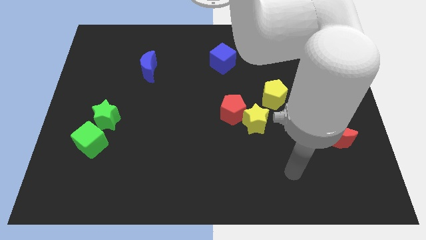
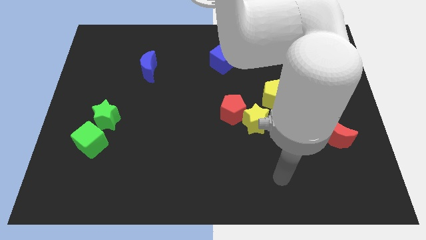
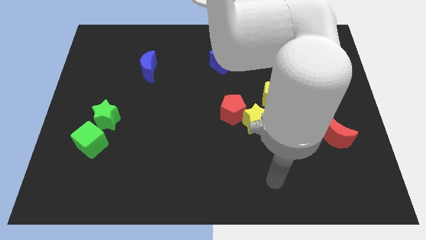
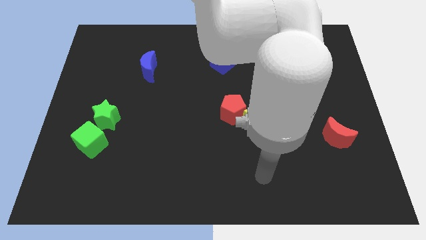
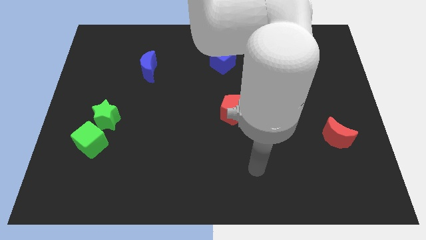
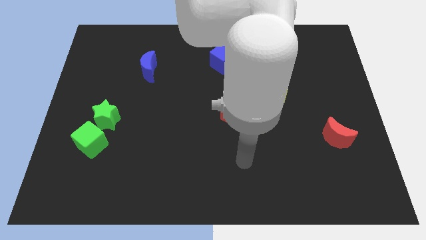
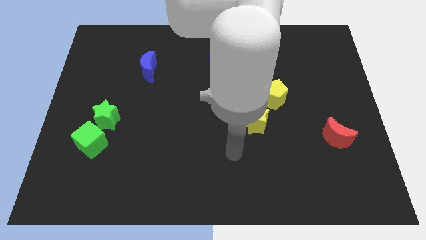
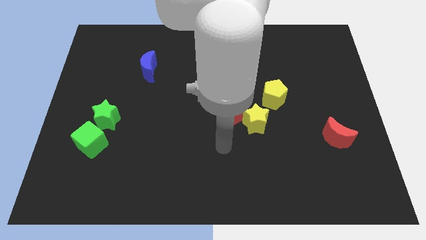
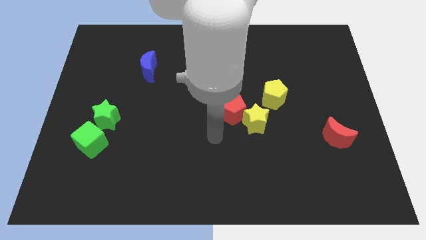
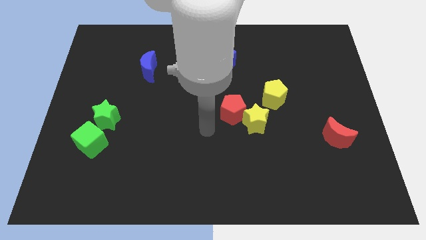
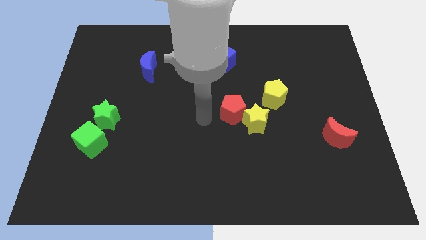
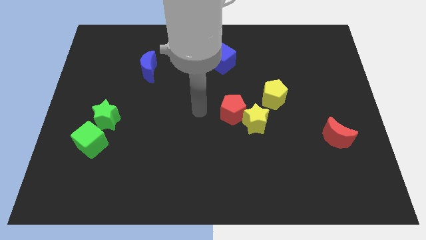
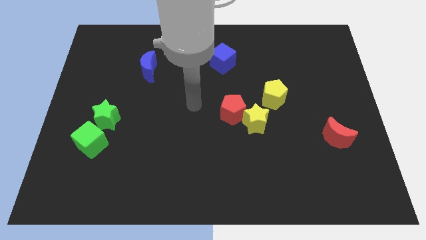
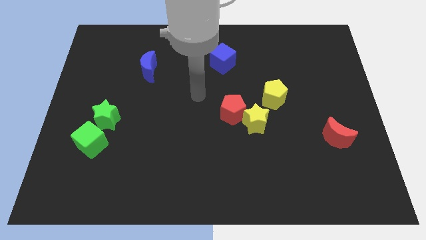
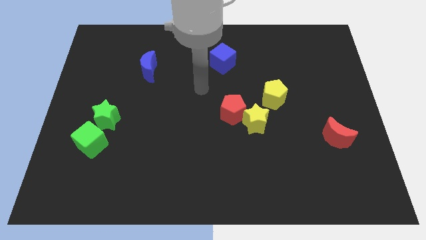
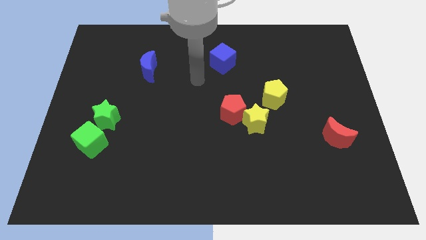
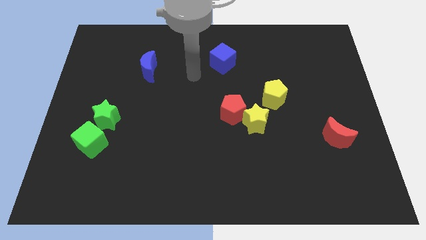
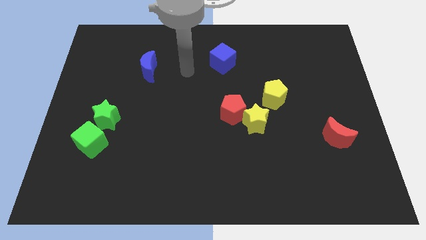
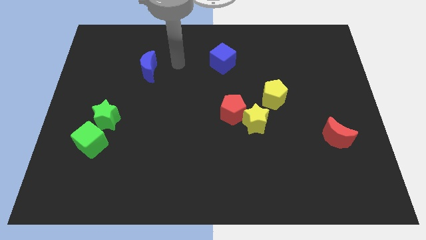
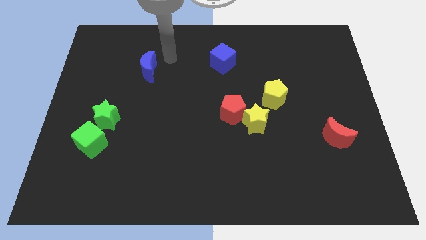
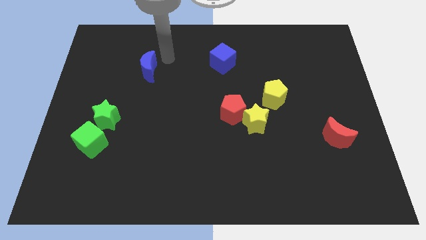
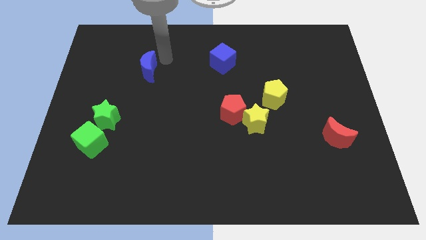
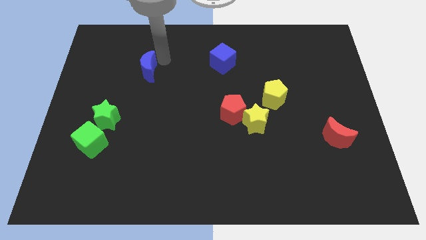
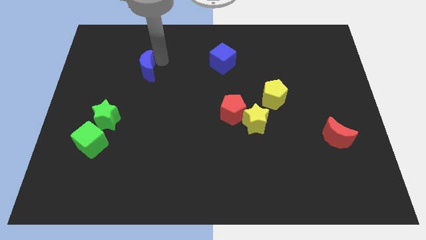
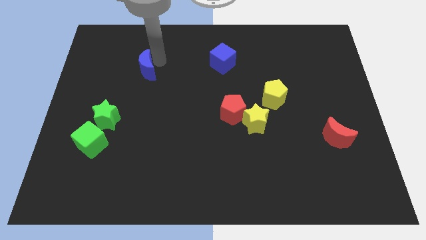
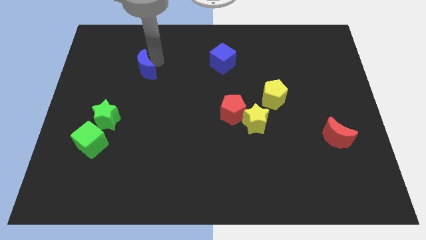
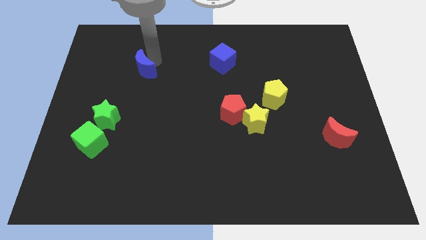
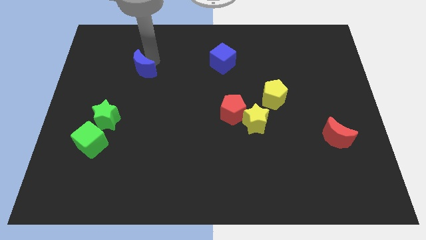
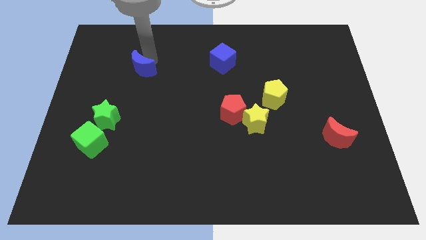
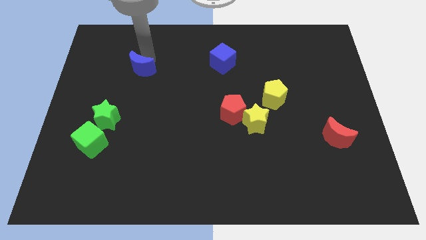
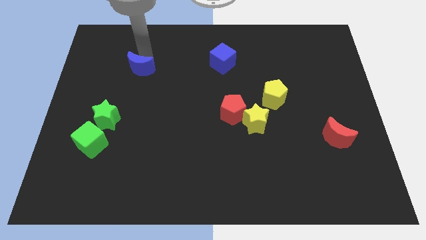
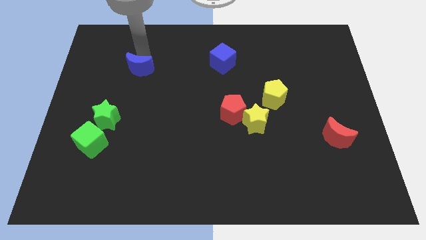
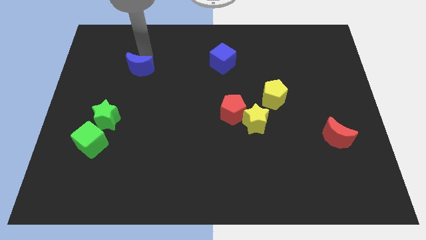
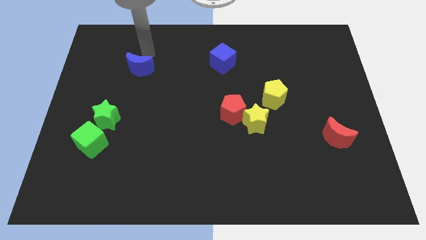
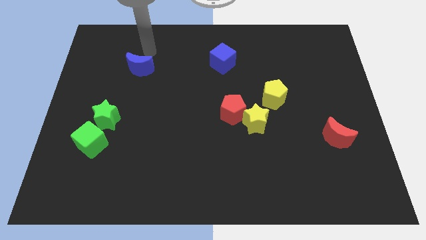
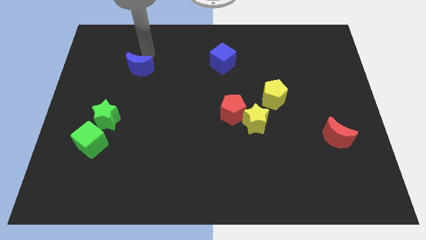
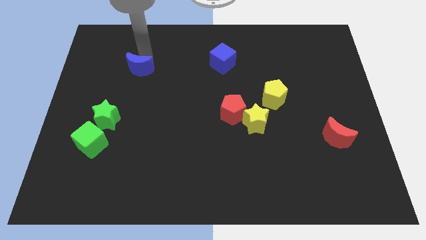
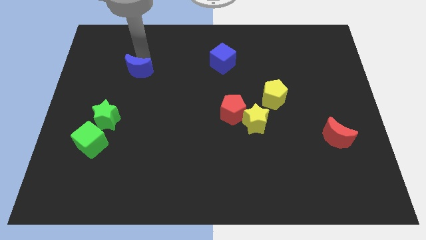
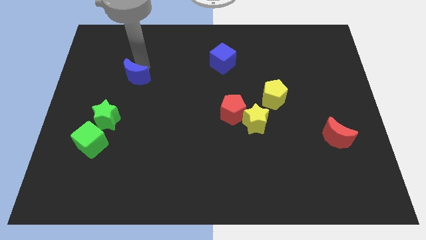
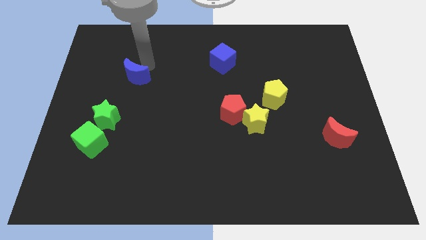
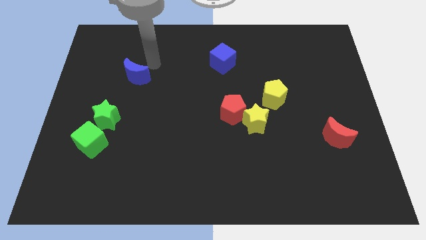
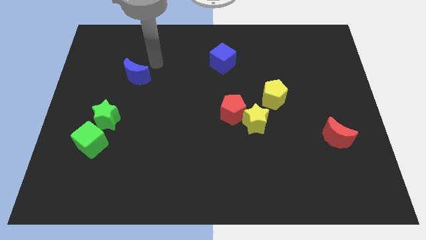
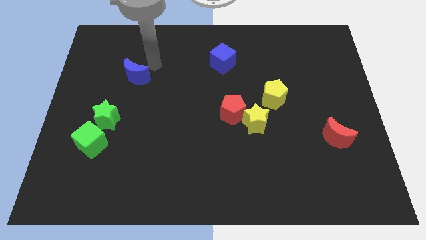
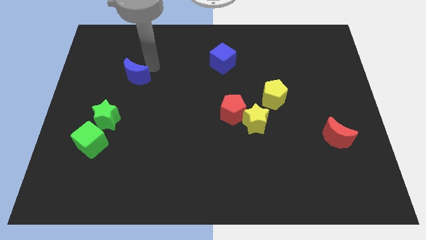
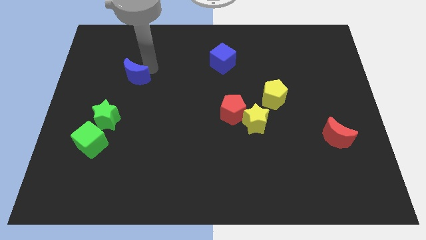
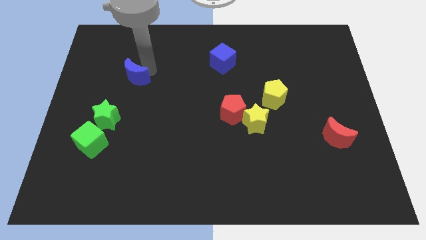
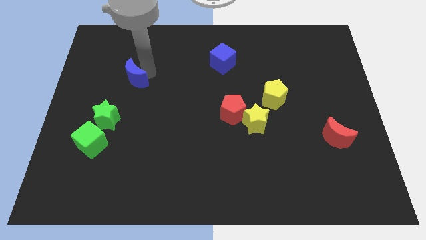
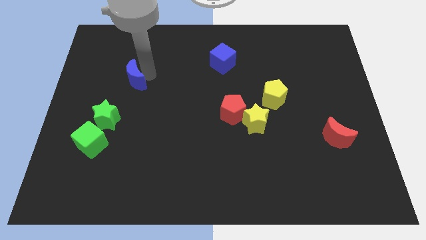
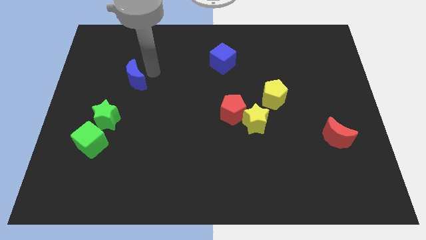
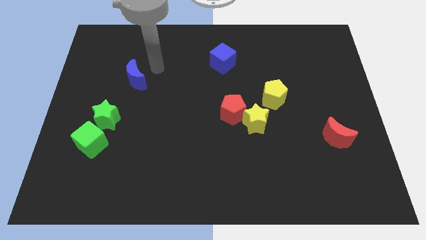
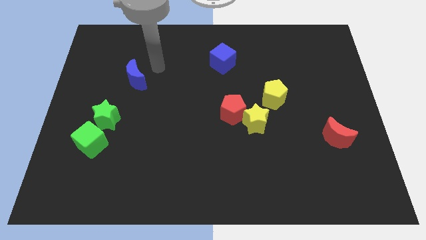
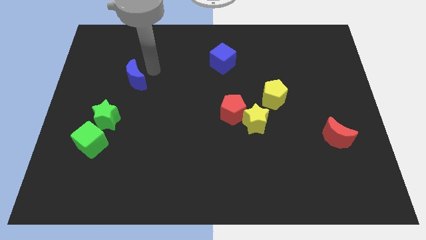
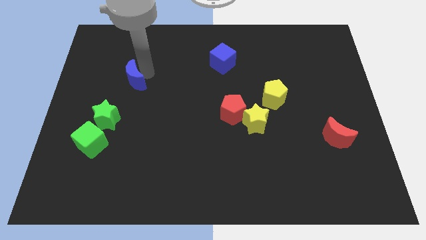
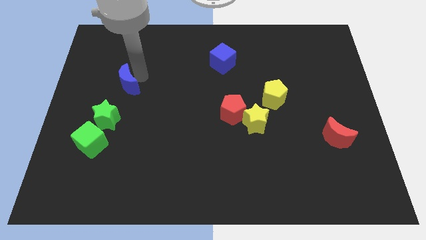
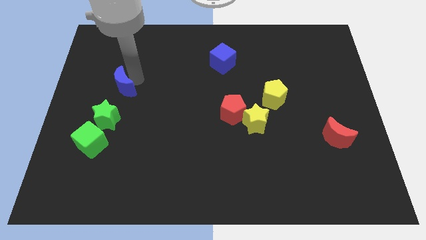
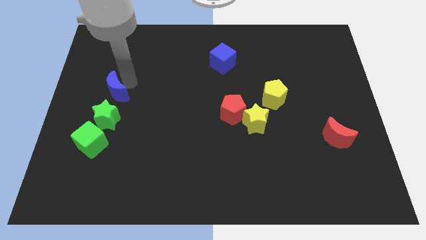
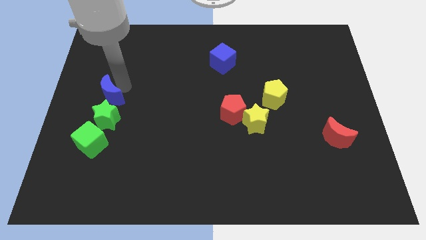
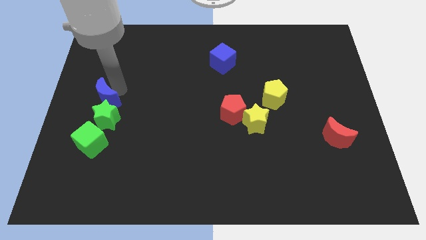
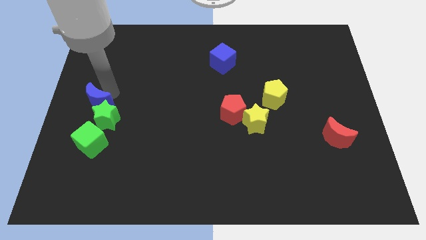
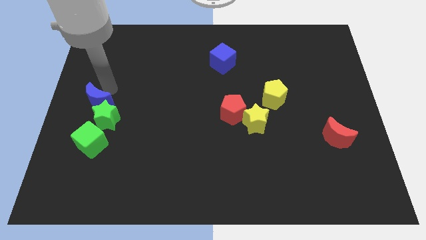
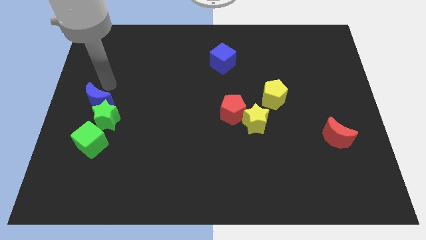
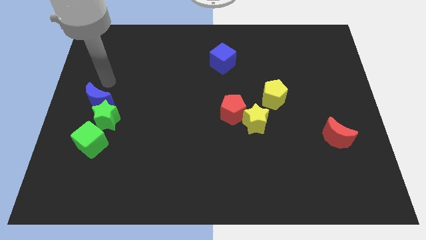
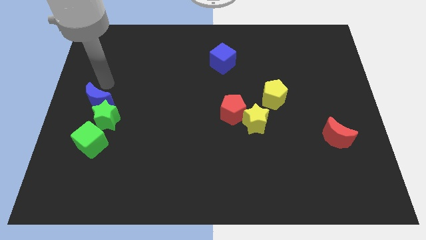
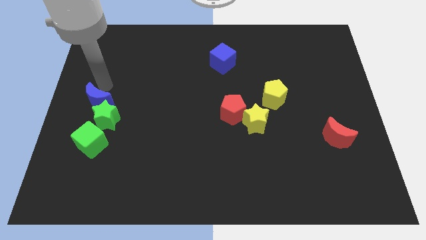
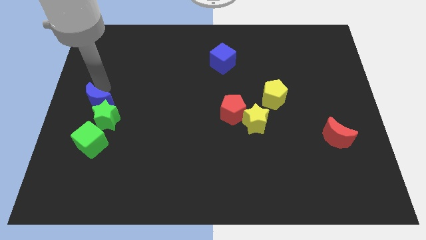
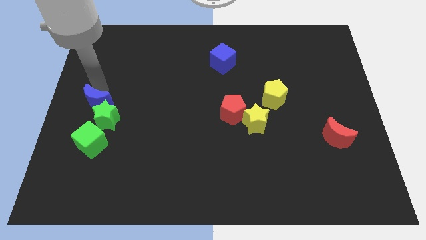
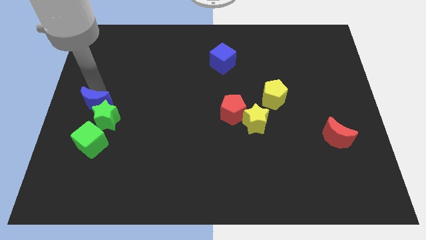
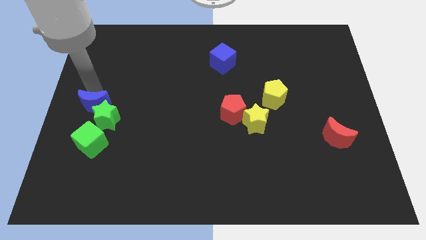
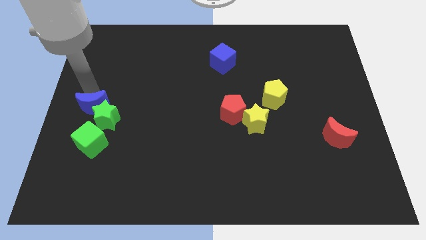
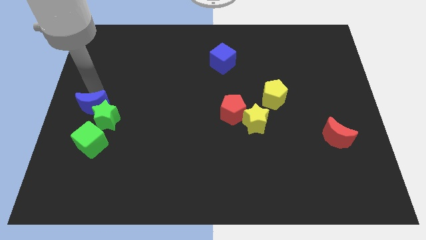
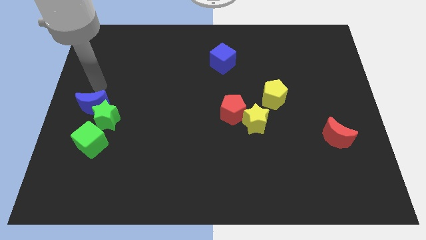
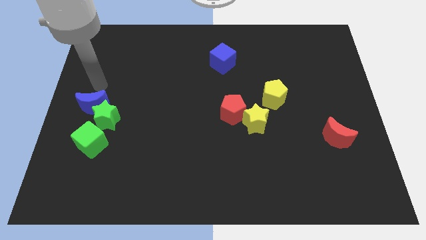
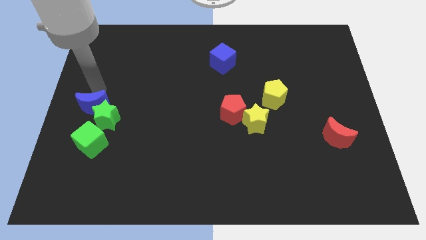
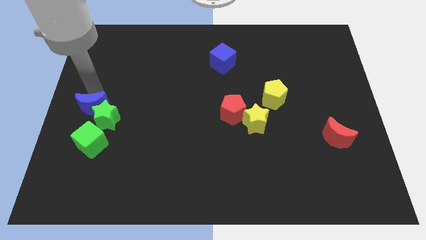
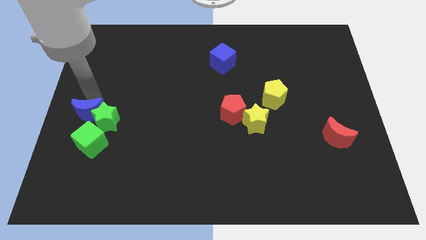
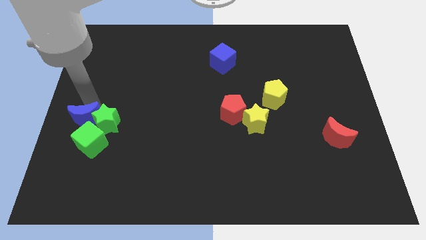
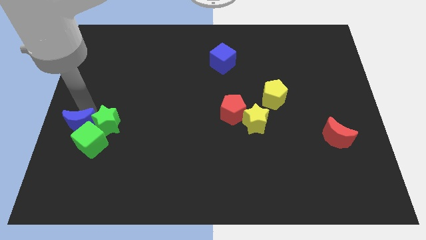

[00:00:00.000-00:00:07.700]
move the blue moon towards the green cube
